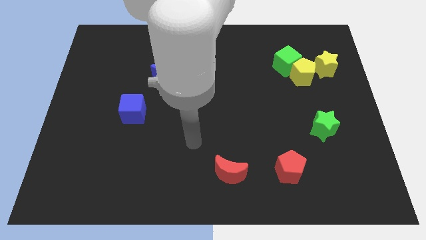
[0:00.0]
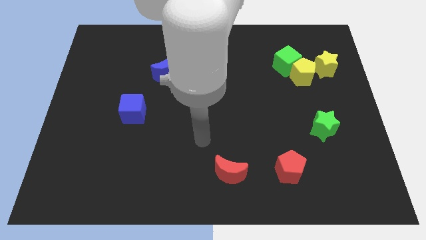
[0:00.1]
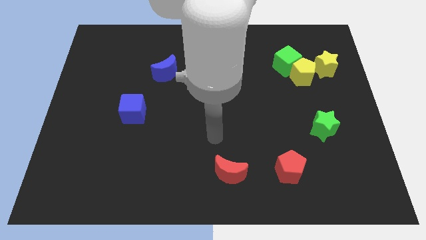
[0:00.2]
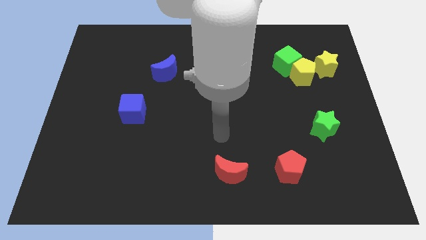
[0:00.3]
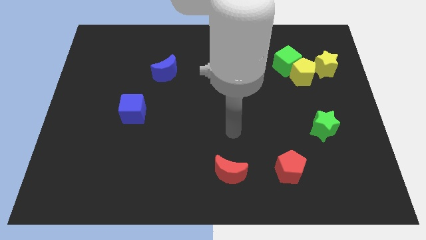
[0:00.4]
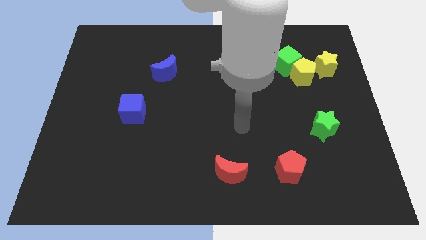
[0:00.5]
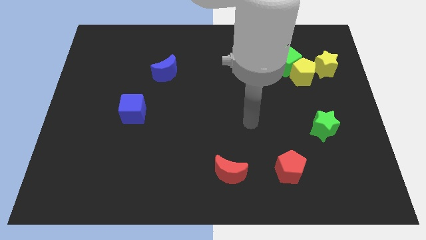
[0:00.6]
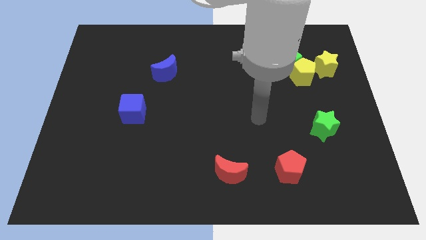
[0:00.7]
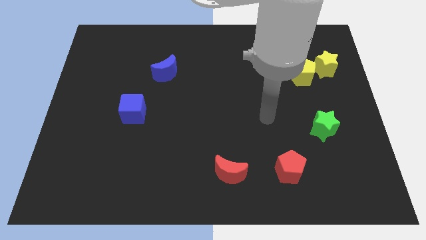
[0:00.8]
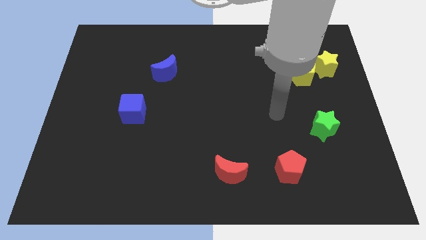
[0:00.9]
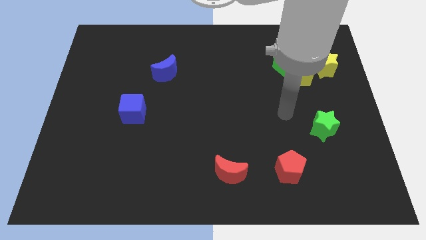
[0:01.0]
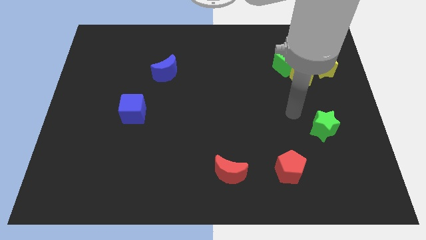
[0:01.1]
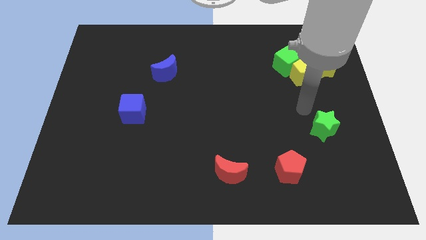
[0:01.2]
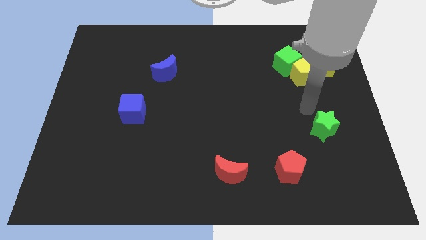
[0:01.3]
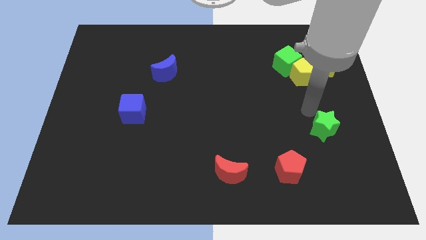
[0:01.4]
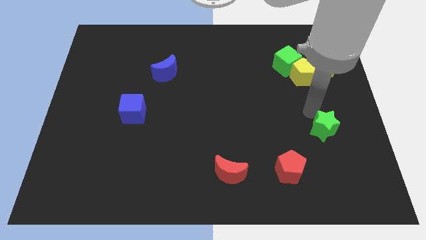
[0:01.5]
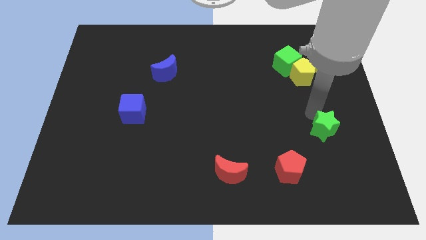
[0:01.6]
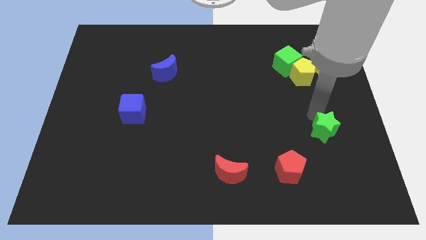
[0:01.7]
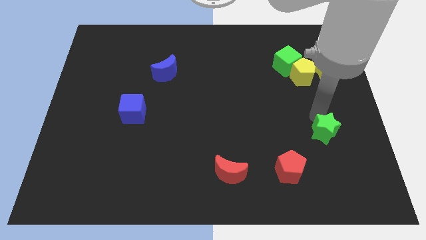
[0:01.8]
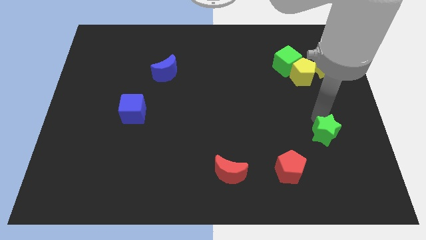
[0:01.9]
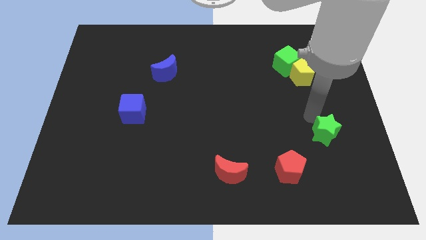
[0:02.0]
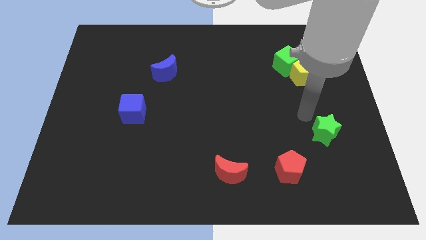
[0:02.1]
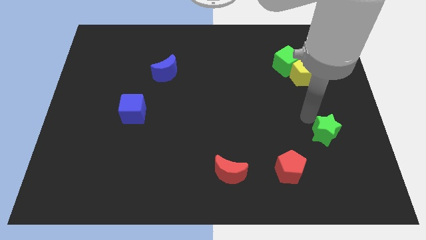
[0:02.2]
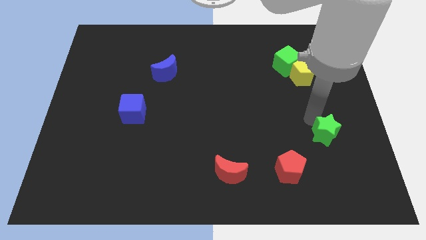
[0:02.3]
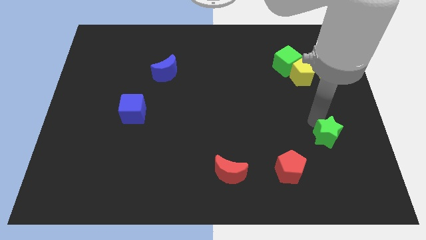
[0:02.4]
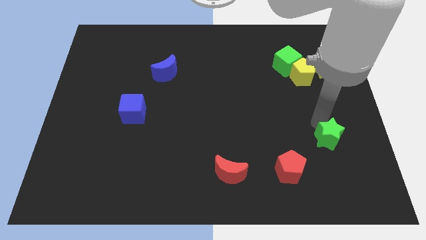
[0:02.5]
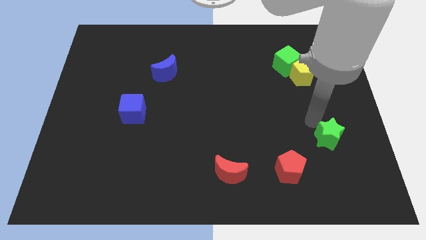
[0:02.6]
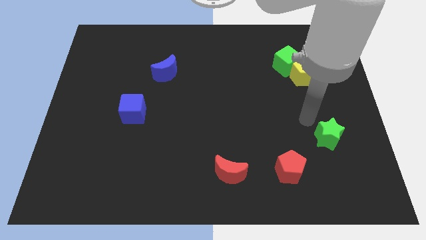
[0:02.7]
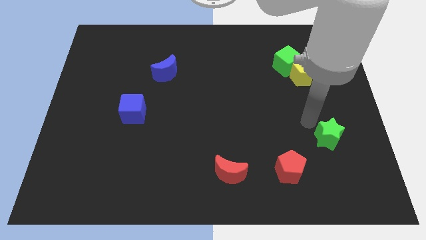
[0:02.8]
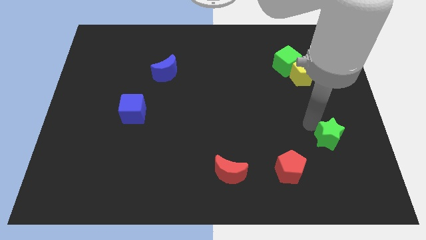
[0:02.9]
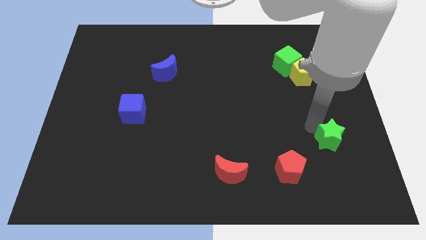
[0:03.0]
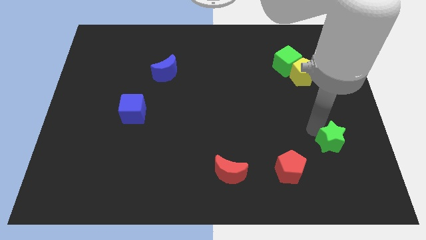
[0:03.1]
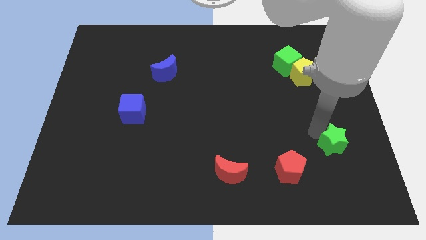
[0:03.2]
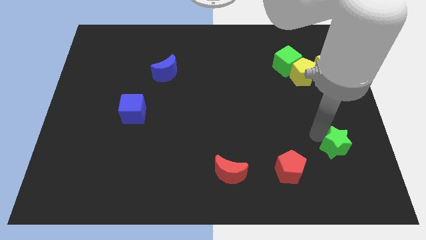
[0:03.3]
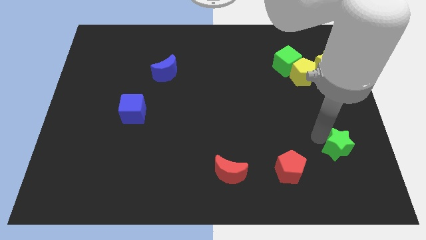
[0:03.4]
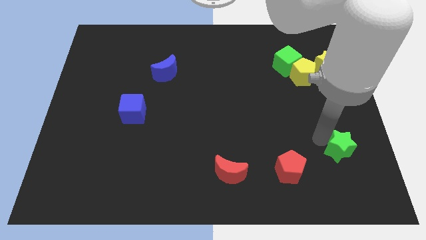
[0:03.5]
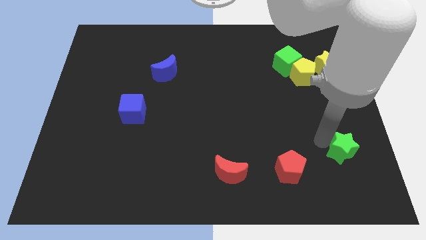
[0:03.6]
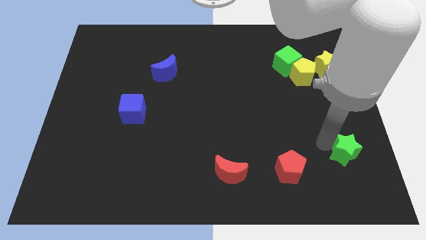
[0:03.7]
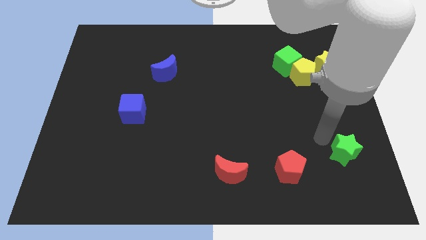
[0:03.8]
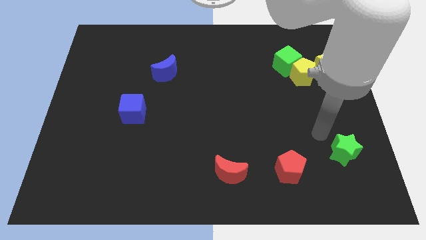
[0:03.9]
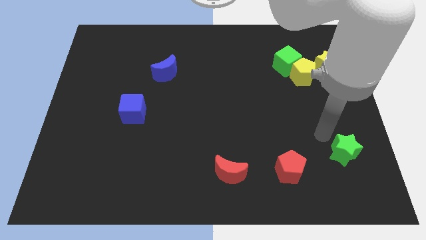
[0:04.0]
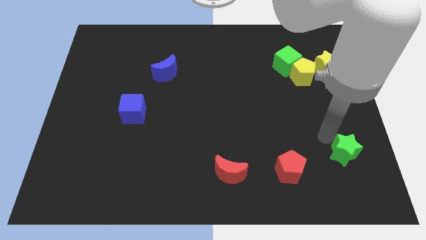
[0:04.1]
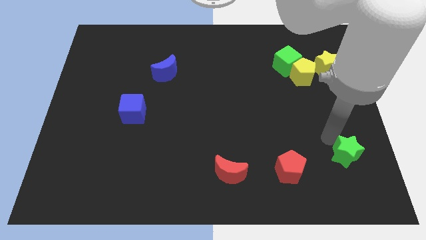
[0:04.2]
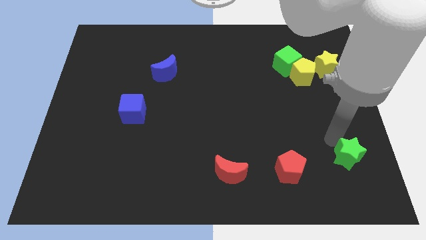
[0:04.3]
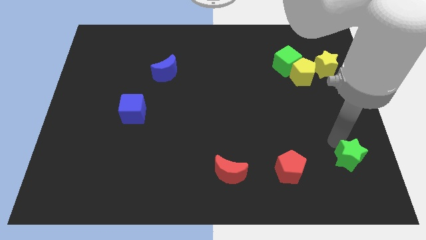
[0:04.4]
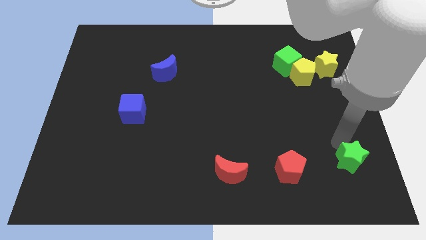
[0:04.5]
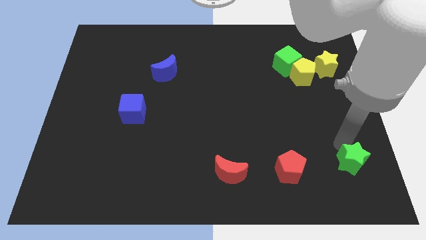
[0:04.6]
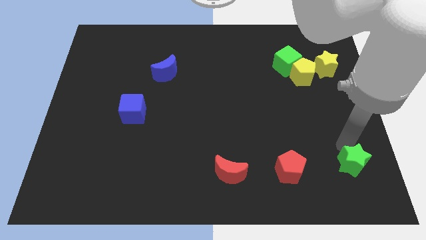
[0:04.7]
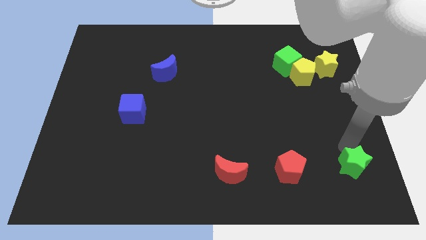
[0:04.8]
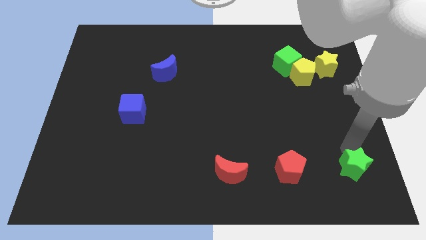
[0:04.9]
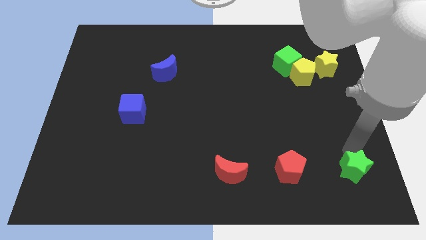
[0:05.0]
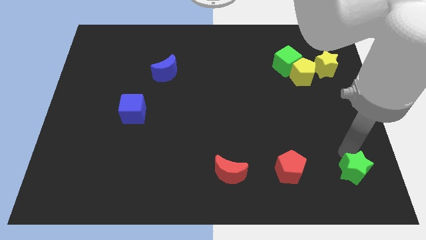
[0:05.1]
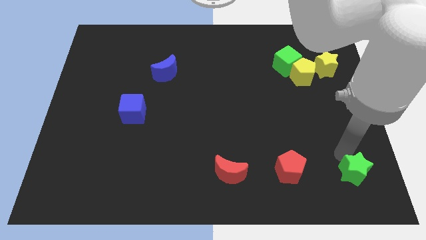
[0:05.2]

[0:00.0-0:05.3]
move the green star to the bottom right

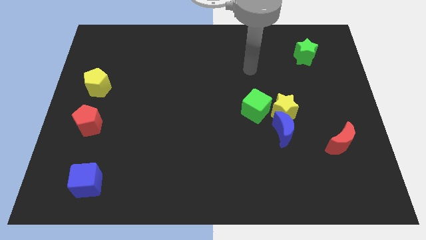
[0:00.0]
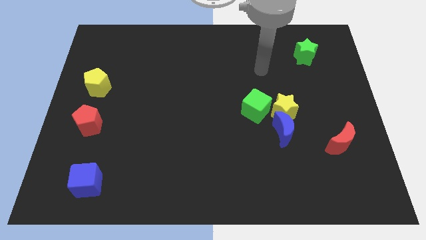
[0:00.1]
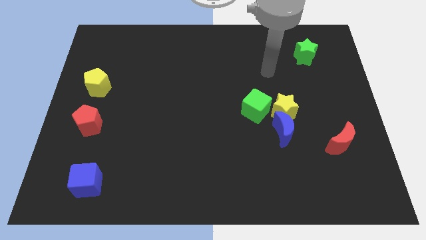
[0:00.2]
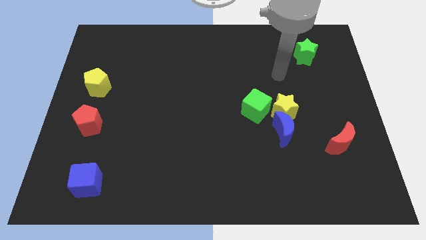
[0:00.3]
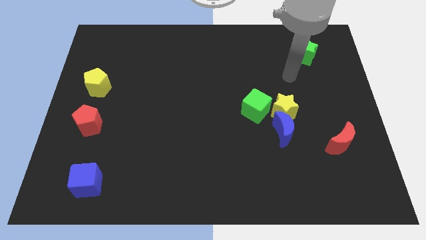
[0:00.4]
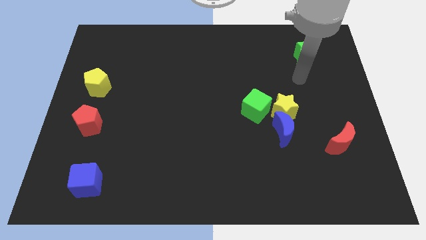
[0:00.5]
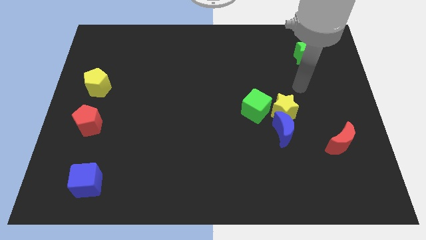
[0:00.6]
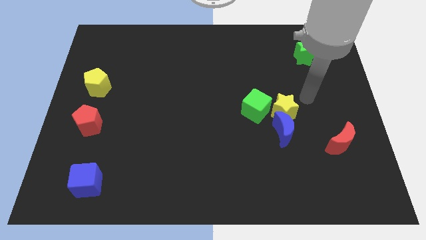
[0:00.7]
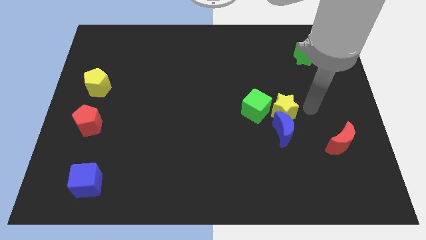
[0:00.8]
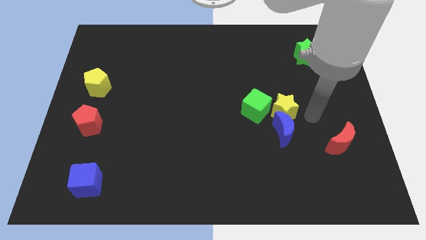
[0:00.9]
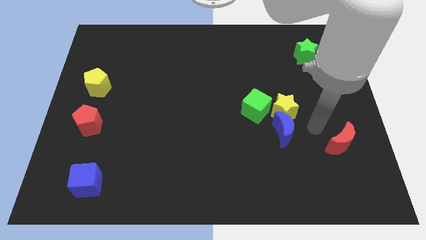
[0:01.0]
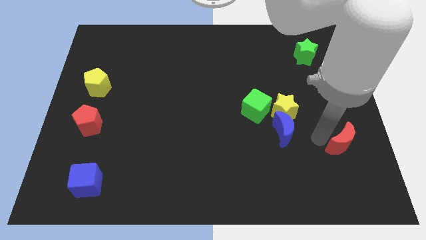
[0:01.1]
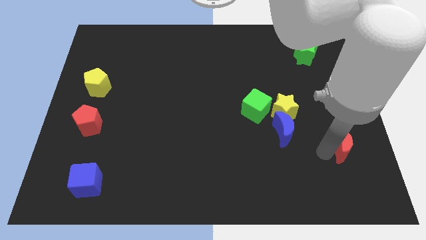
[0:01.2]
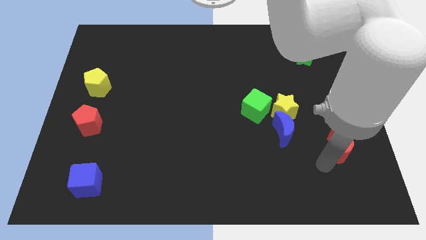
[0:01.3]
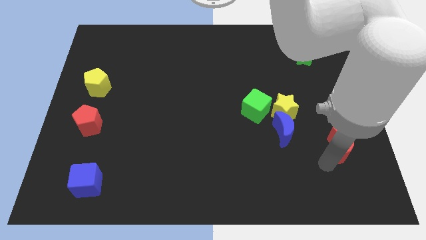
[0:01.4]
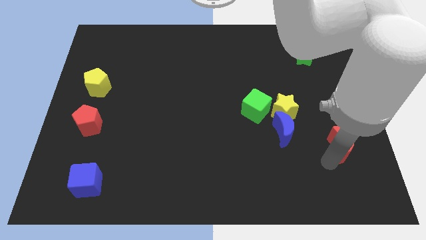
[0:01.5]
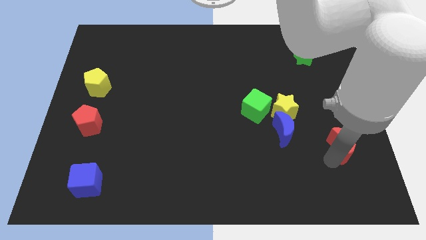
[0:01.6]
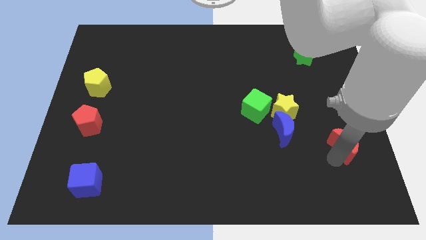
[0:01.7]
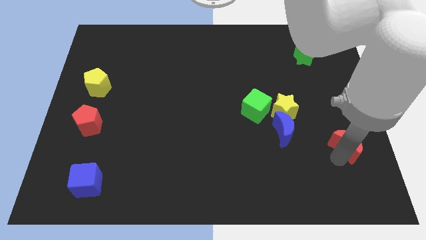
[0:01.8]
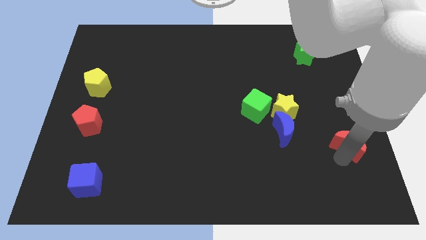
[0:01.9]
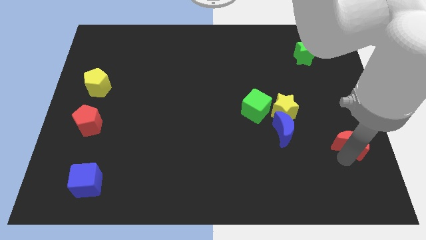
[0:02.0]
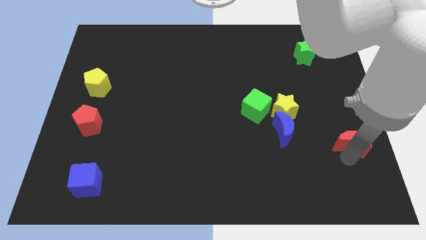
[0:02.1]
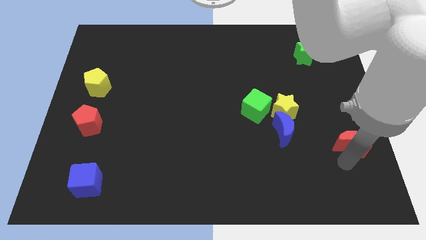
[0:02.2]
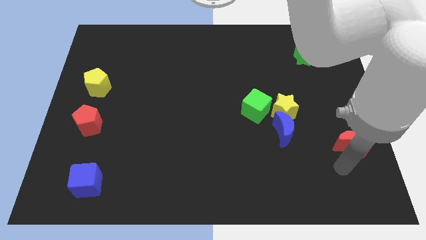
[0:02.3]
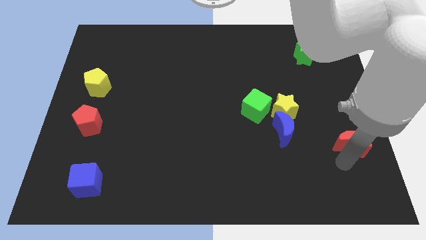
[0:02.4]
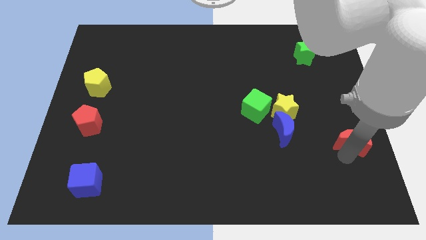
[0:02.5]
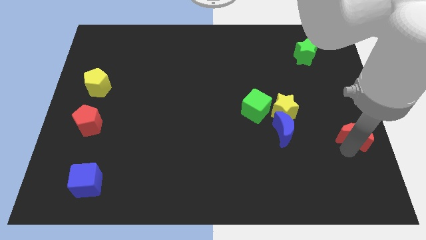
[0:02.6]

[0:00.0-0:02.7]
slide the red moon to the right side
